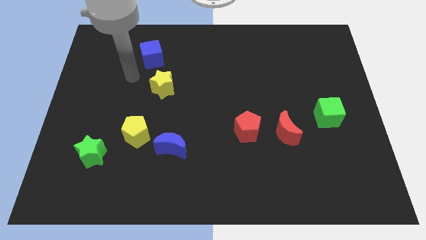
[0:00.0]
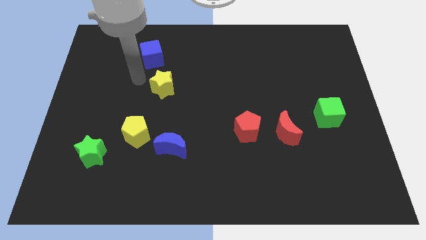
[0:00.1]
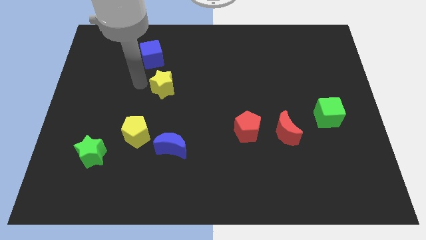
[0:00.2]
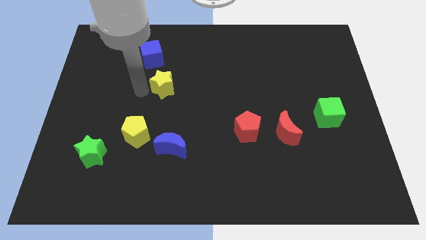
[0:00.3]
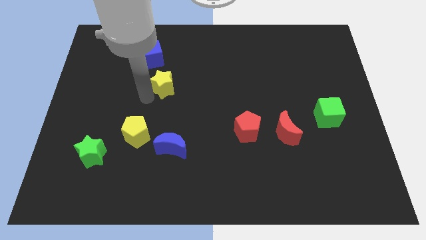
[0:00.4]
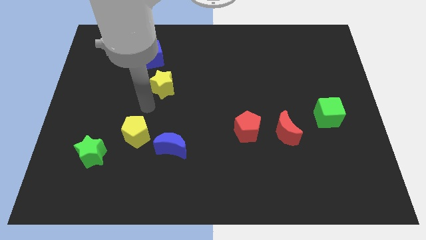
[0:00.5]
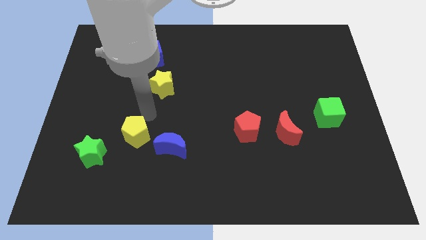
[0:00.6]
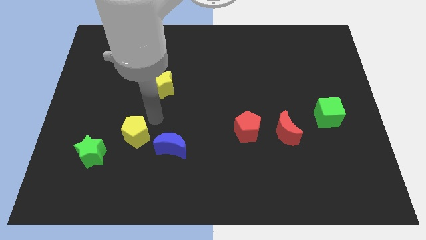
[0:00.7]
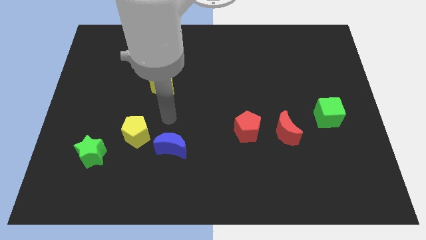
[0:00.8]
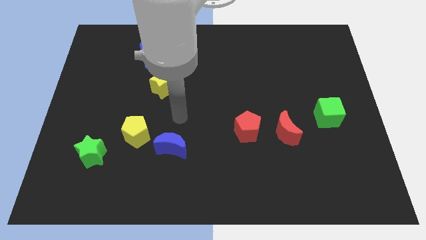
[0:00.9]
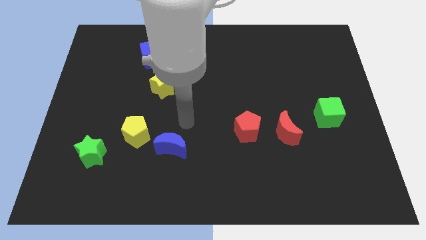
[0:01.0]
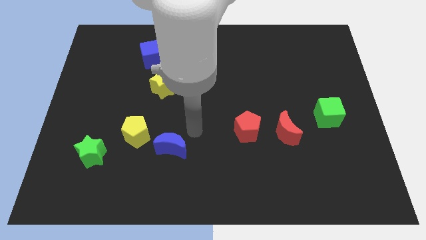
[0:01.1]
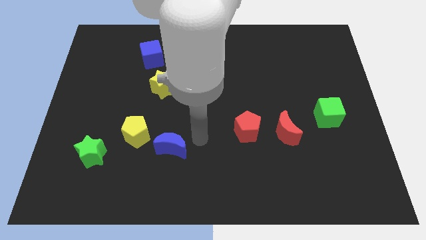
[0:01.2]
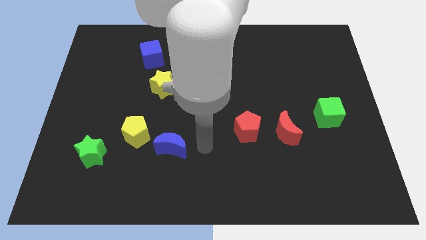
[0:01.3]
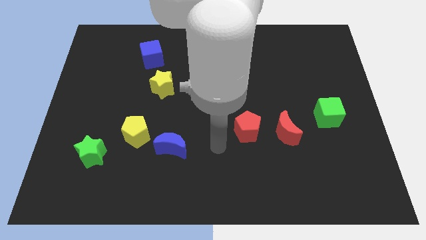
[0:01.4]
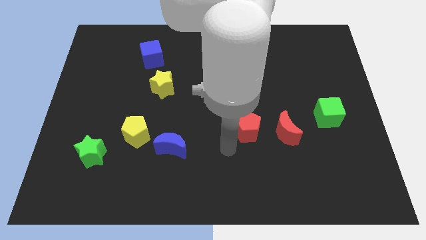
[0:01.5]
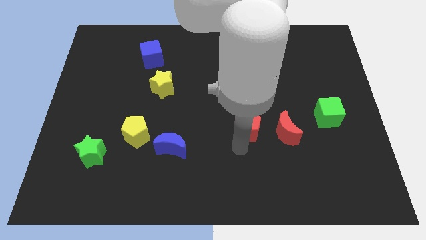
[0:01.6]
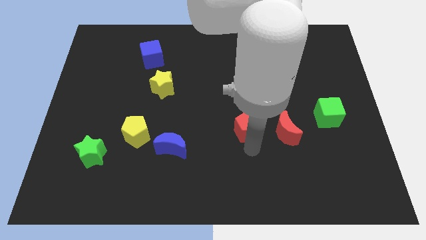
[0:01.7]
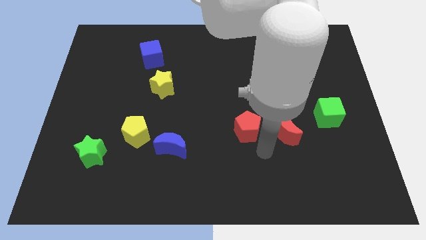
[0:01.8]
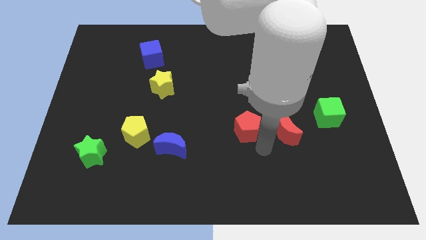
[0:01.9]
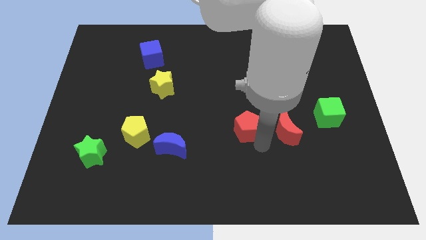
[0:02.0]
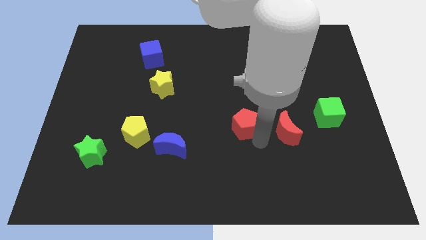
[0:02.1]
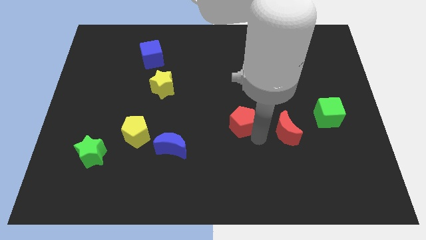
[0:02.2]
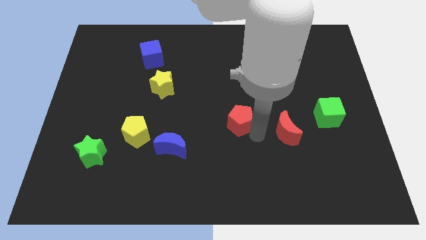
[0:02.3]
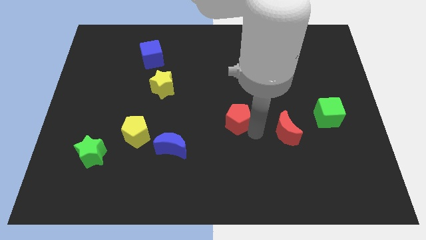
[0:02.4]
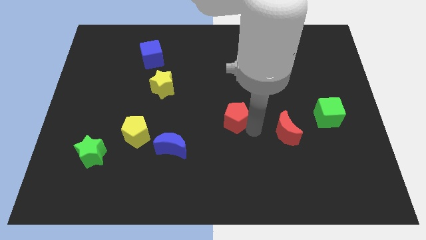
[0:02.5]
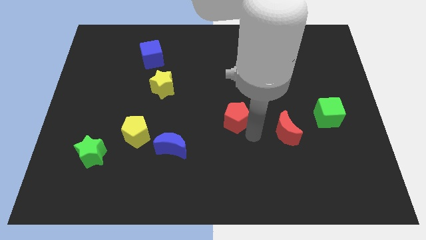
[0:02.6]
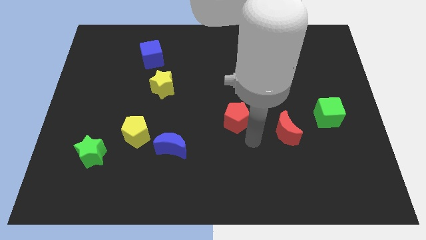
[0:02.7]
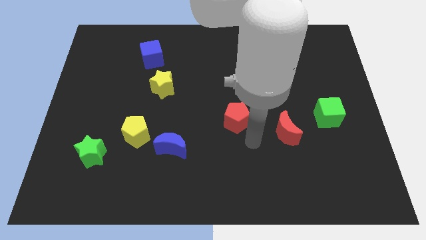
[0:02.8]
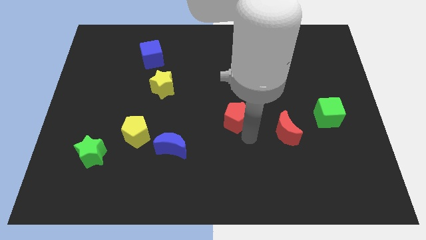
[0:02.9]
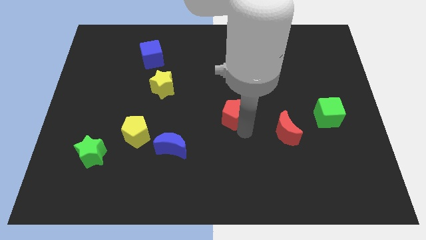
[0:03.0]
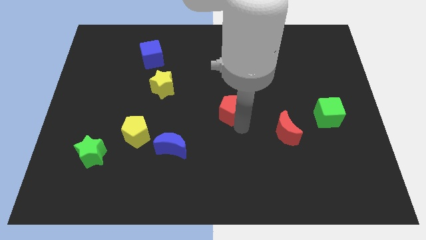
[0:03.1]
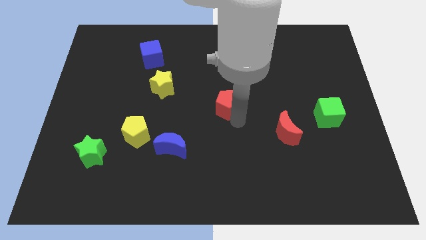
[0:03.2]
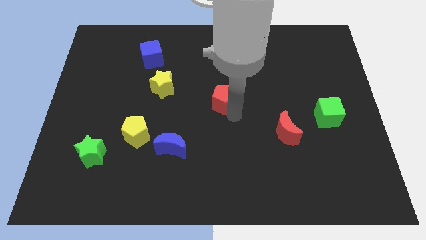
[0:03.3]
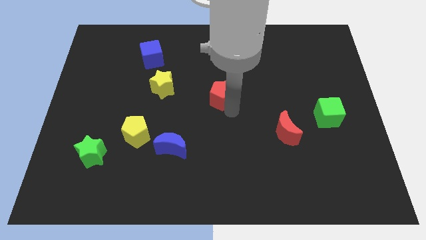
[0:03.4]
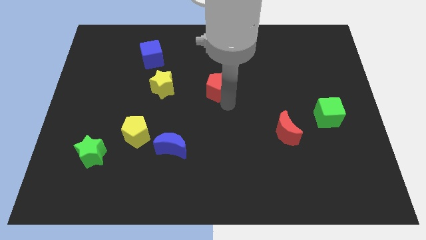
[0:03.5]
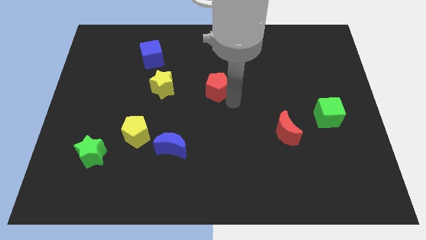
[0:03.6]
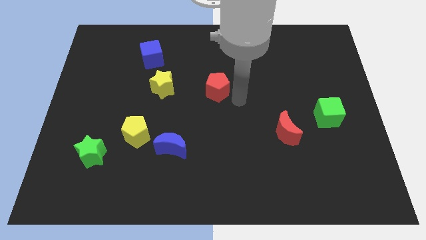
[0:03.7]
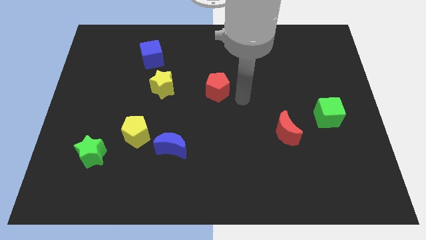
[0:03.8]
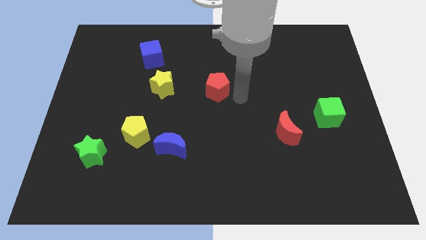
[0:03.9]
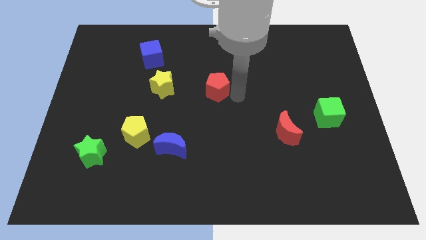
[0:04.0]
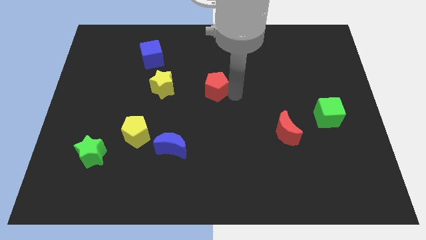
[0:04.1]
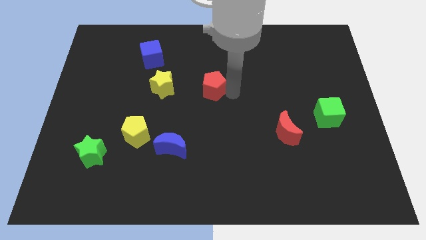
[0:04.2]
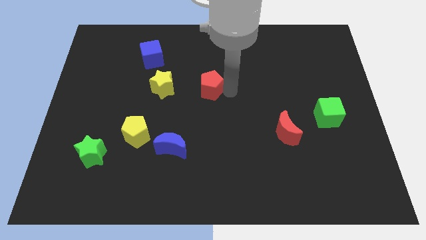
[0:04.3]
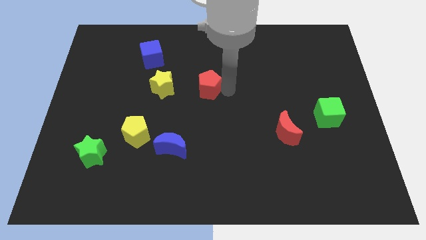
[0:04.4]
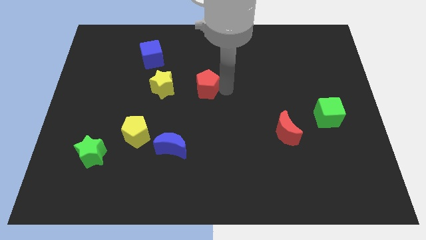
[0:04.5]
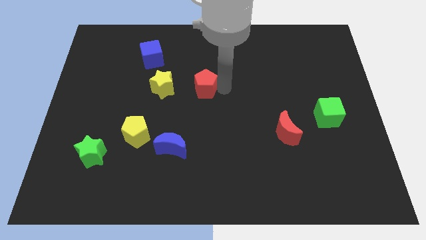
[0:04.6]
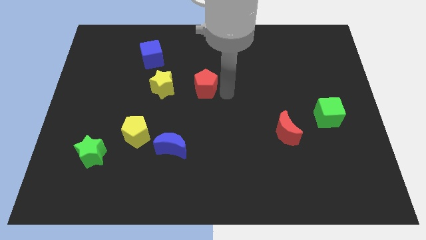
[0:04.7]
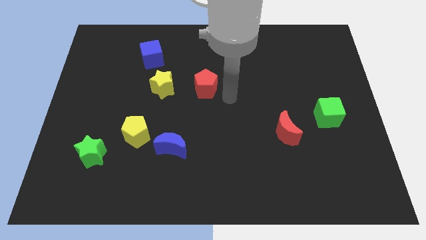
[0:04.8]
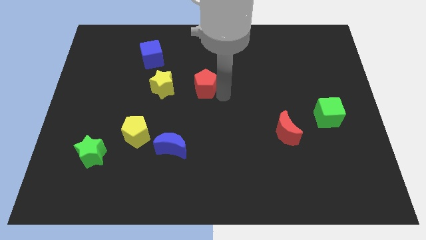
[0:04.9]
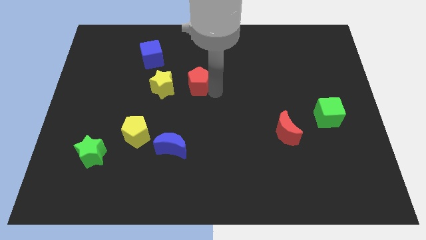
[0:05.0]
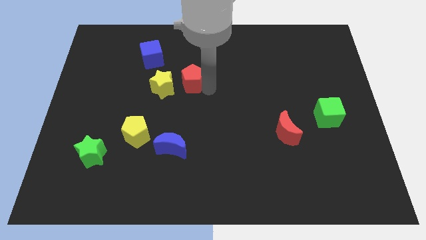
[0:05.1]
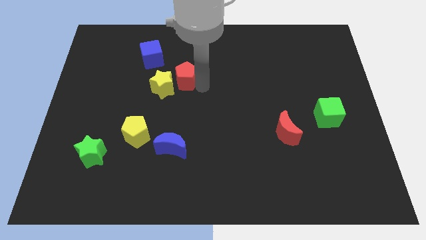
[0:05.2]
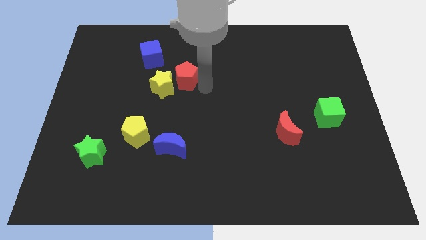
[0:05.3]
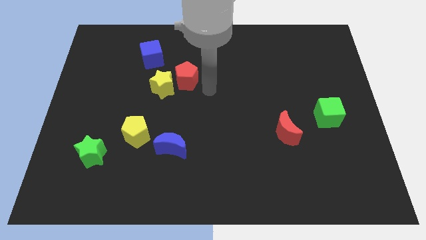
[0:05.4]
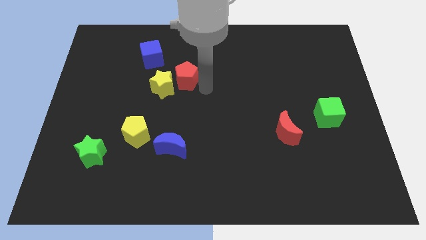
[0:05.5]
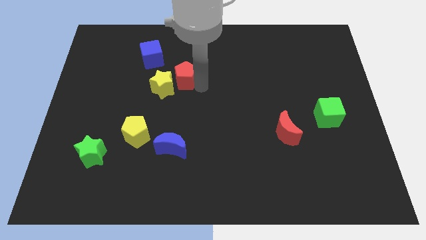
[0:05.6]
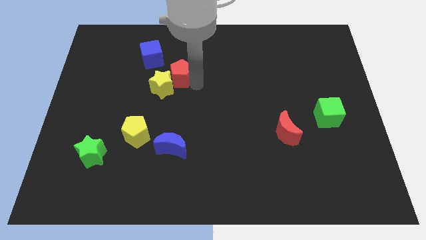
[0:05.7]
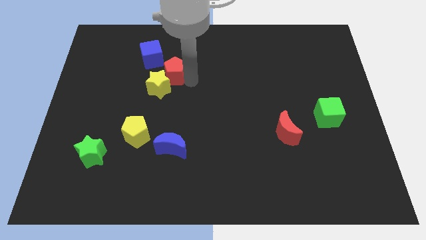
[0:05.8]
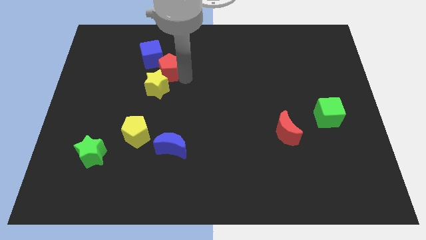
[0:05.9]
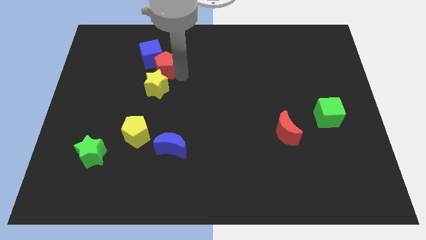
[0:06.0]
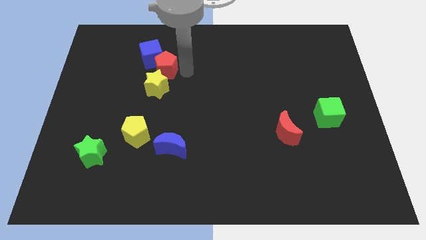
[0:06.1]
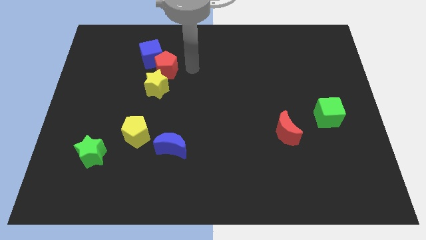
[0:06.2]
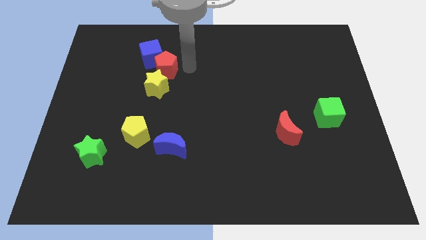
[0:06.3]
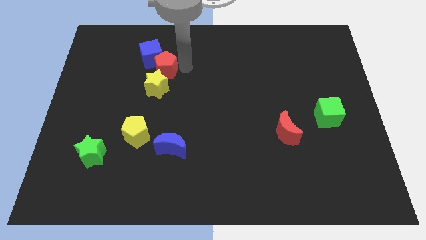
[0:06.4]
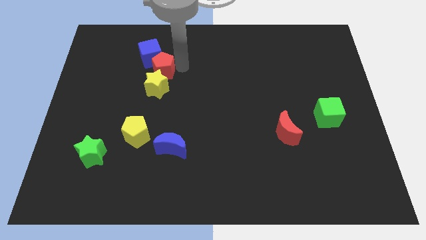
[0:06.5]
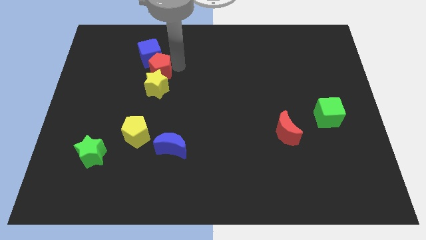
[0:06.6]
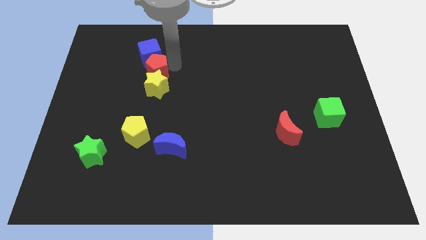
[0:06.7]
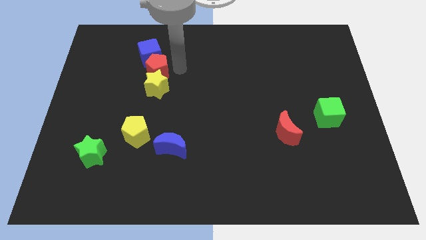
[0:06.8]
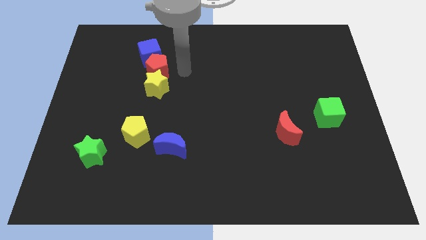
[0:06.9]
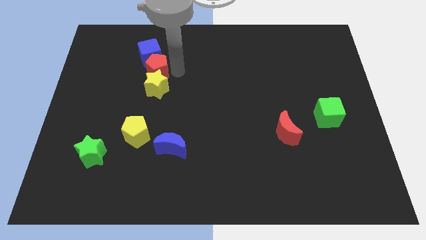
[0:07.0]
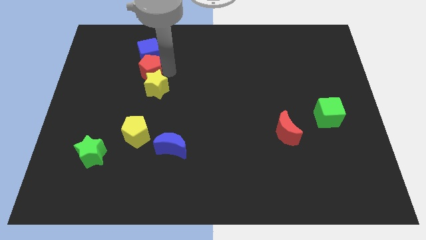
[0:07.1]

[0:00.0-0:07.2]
move the red pentagon to the bottom left side of the blue cube

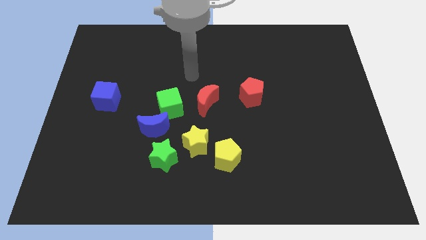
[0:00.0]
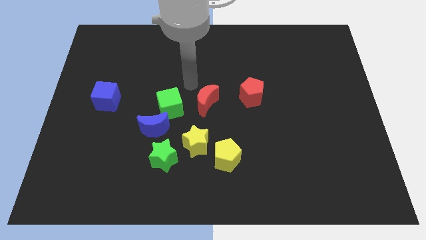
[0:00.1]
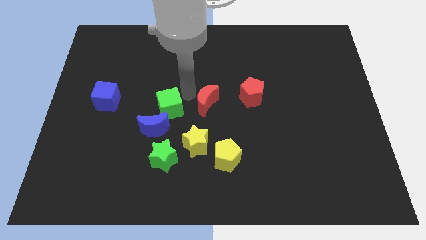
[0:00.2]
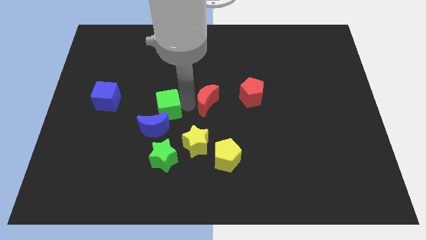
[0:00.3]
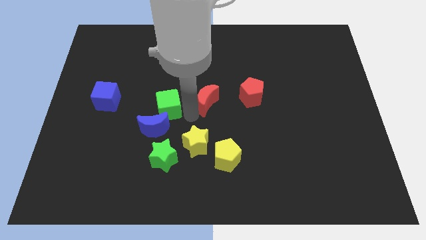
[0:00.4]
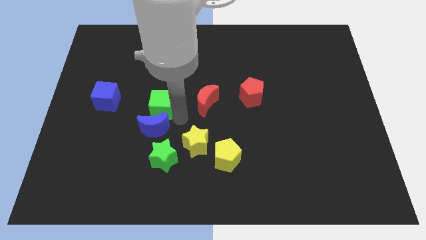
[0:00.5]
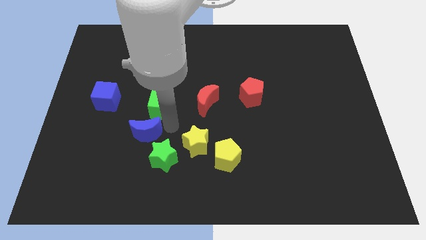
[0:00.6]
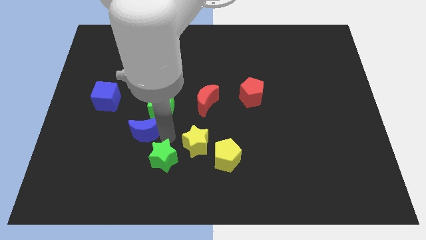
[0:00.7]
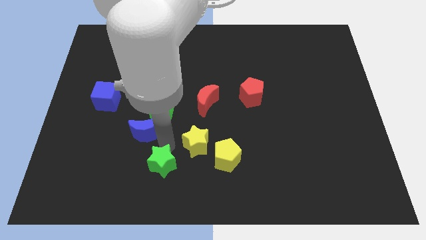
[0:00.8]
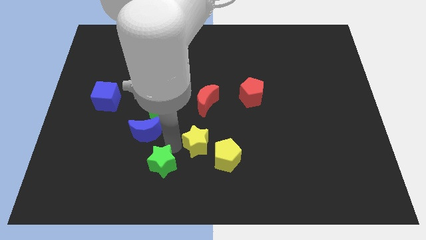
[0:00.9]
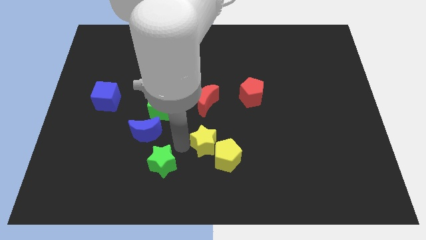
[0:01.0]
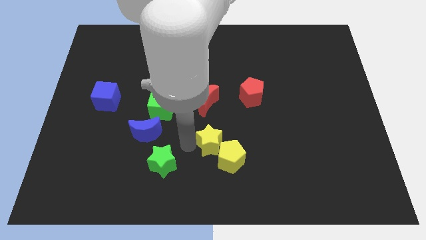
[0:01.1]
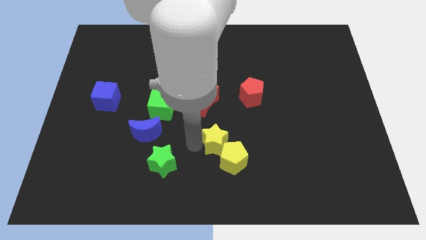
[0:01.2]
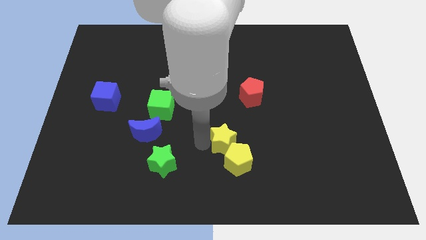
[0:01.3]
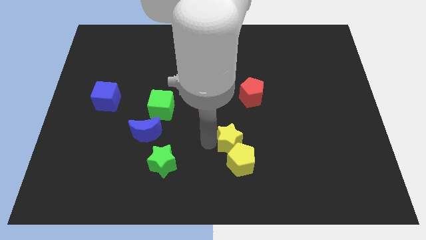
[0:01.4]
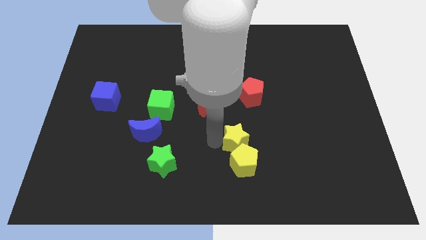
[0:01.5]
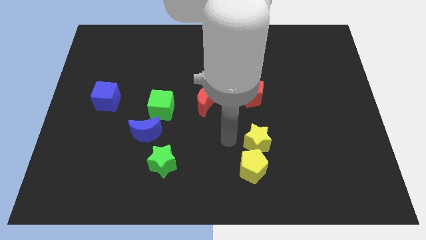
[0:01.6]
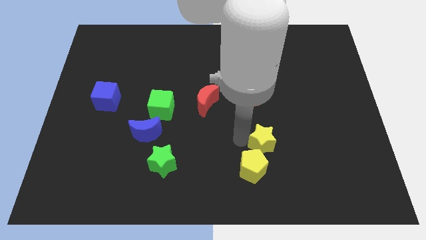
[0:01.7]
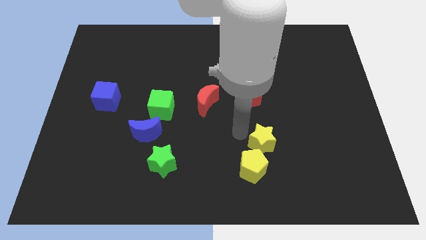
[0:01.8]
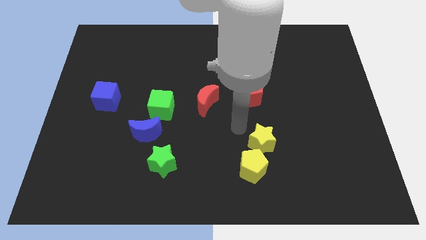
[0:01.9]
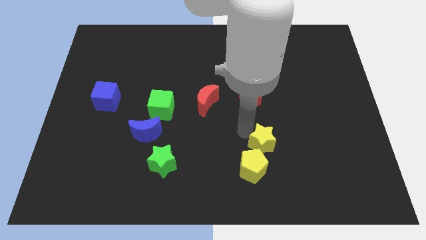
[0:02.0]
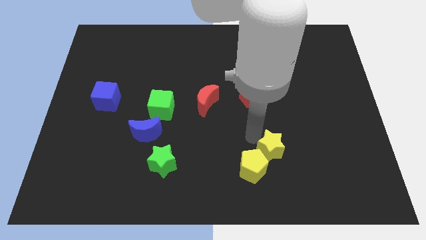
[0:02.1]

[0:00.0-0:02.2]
put the yellow star just right of the yellow pentagon
